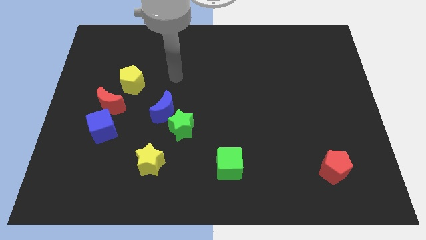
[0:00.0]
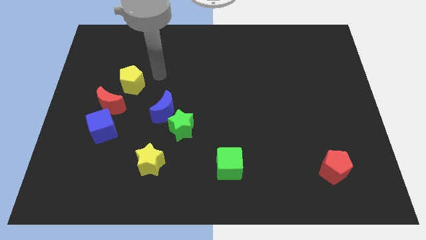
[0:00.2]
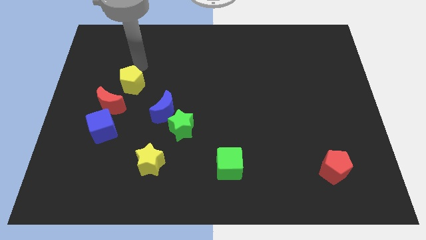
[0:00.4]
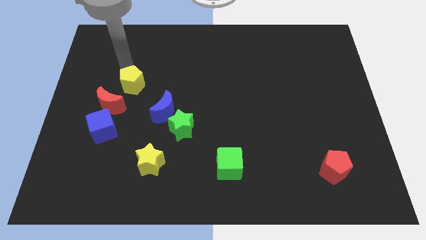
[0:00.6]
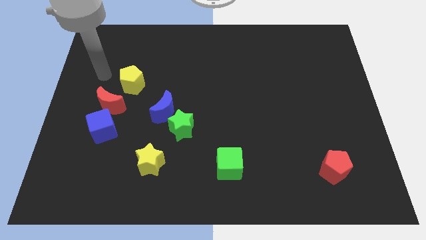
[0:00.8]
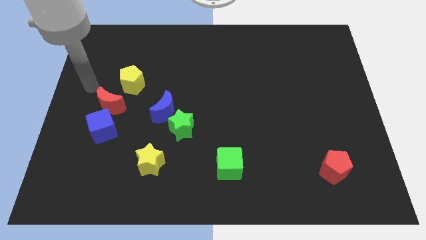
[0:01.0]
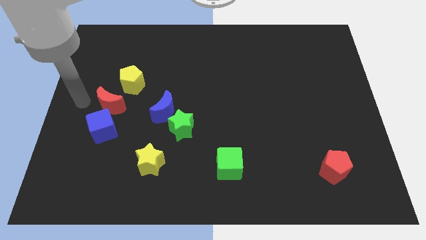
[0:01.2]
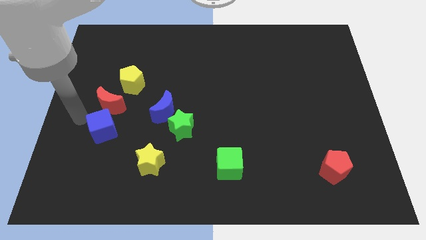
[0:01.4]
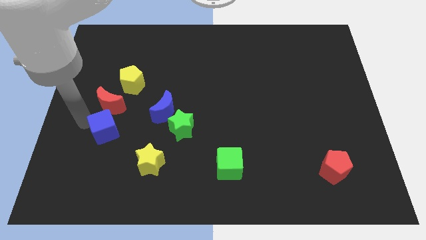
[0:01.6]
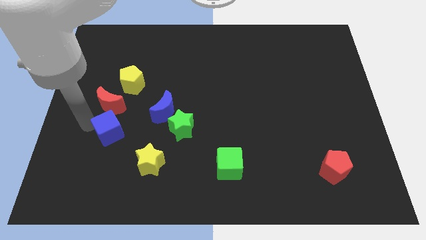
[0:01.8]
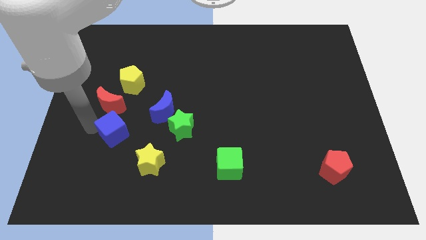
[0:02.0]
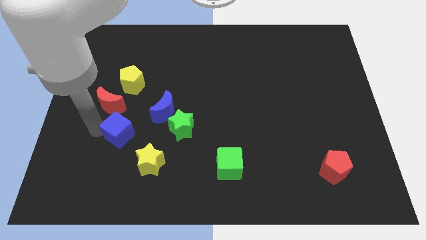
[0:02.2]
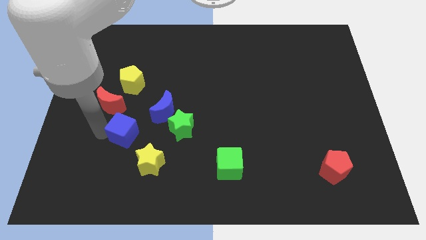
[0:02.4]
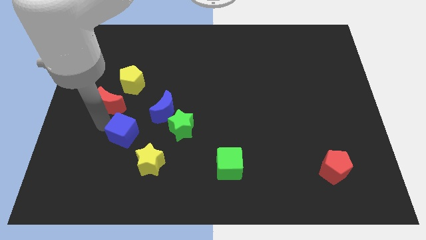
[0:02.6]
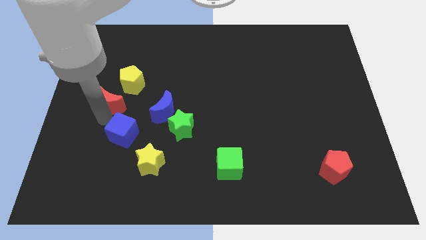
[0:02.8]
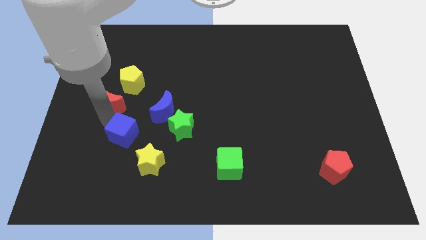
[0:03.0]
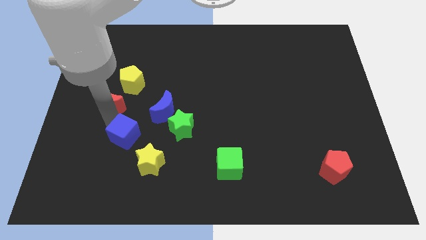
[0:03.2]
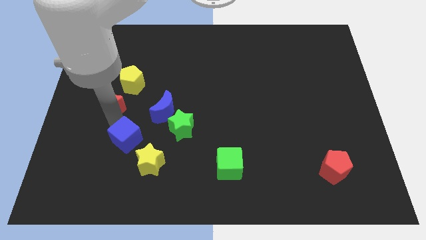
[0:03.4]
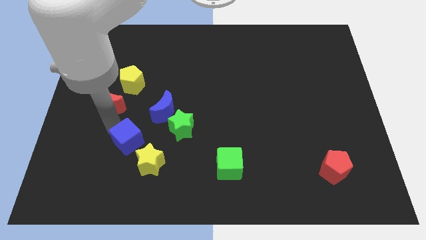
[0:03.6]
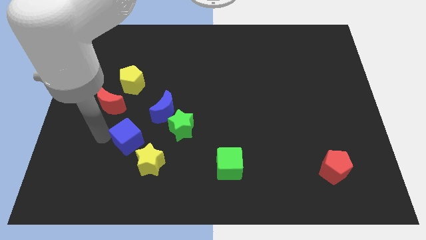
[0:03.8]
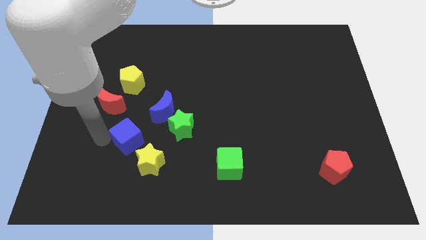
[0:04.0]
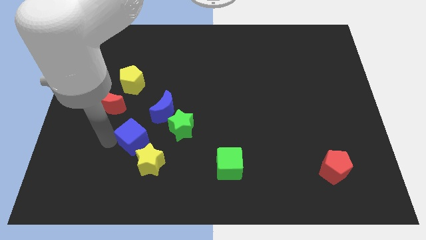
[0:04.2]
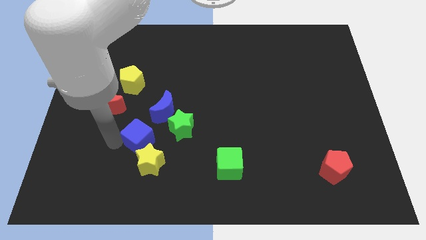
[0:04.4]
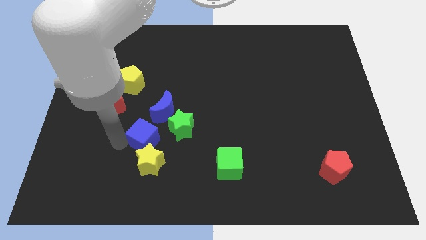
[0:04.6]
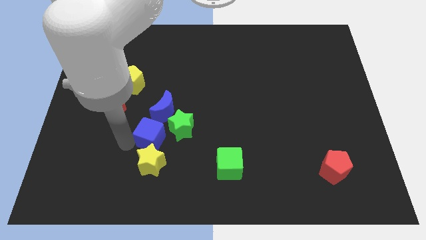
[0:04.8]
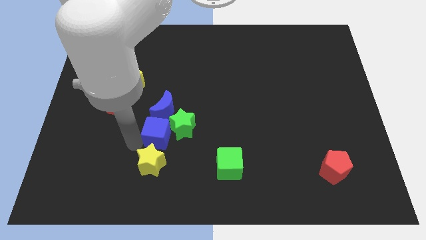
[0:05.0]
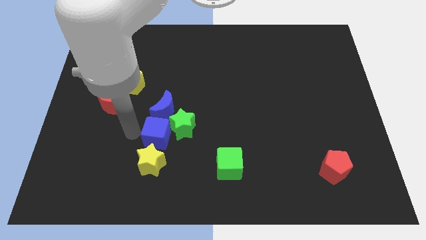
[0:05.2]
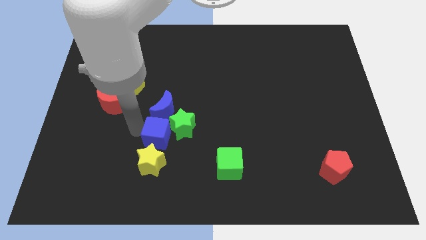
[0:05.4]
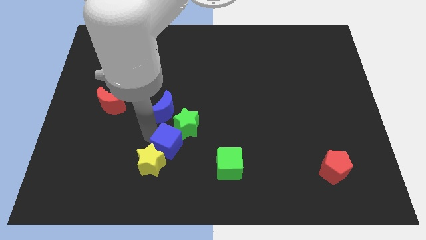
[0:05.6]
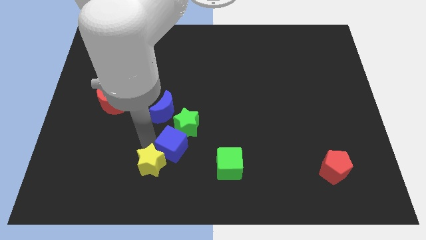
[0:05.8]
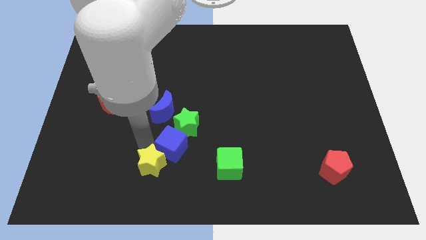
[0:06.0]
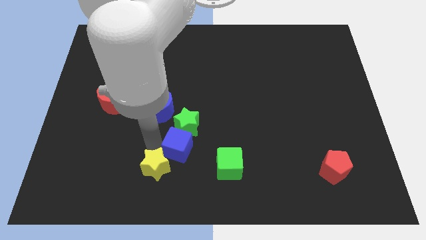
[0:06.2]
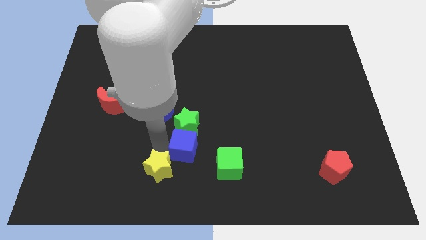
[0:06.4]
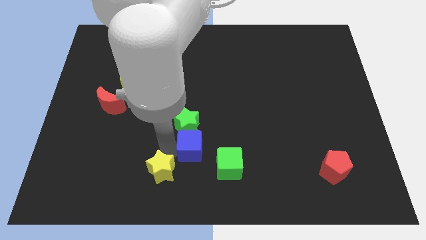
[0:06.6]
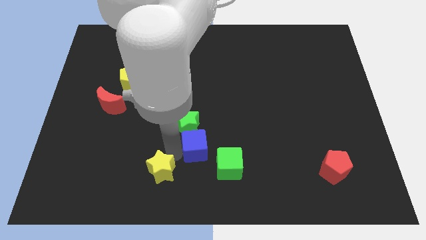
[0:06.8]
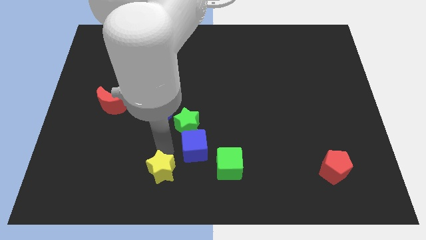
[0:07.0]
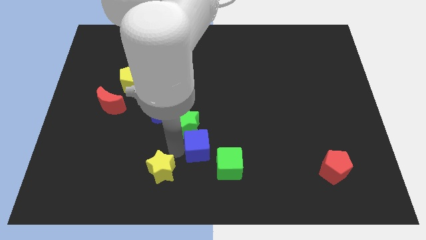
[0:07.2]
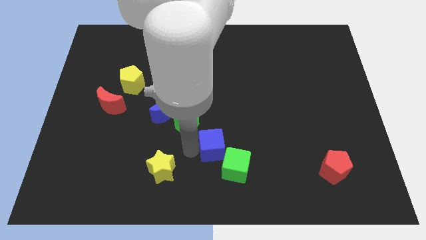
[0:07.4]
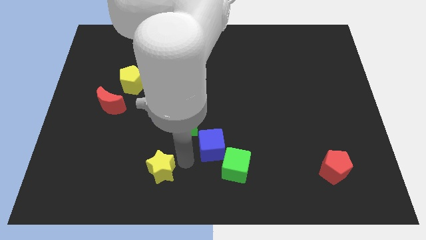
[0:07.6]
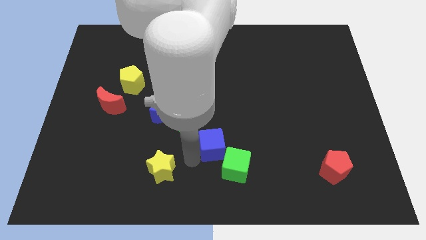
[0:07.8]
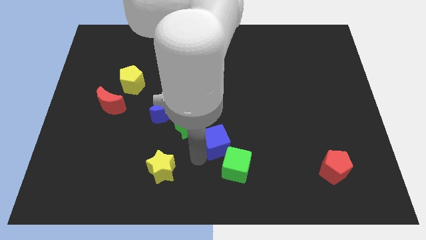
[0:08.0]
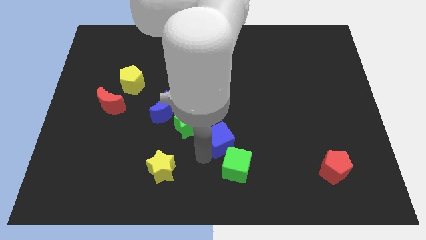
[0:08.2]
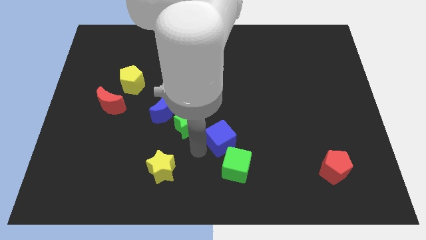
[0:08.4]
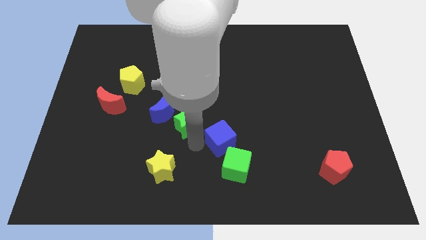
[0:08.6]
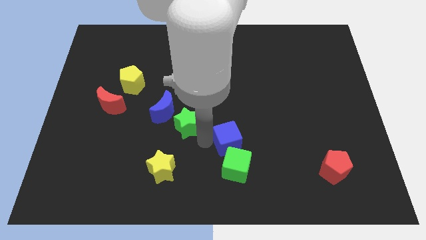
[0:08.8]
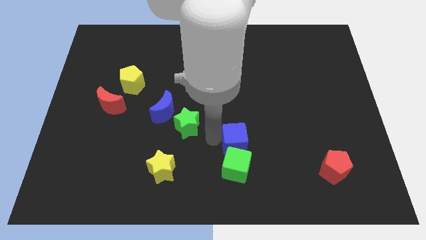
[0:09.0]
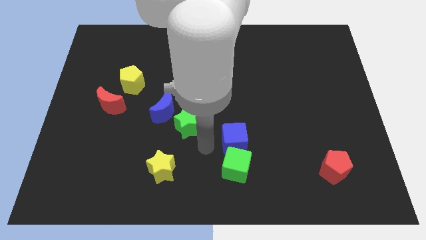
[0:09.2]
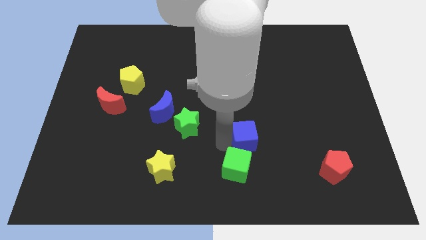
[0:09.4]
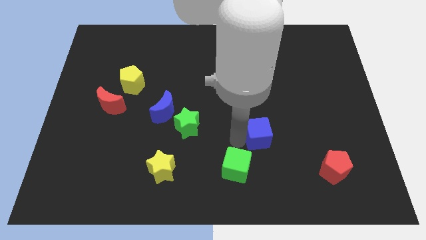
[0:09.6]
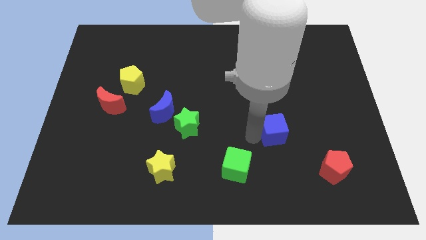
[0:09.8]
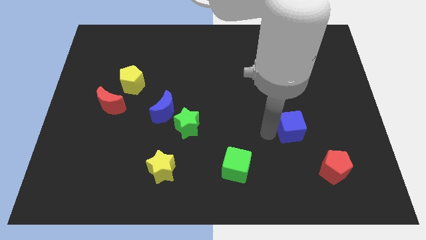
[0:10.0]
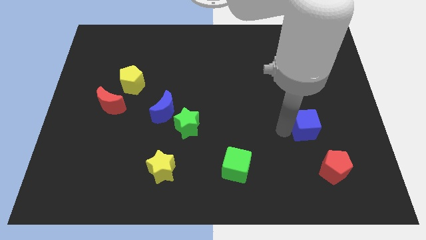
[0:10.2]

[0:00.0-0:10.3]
put the blue cube to the top of the red pentagon

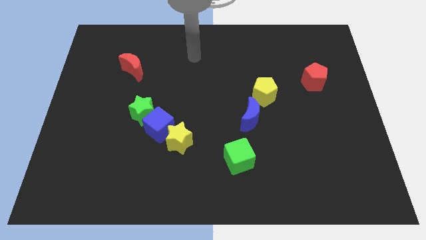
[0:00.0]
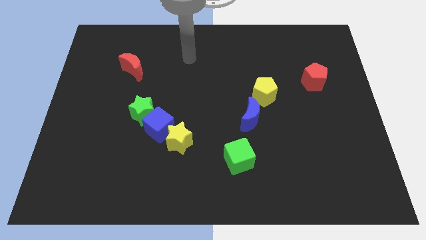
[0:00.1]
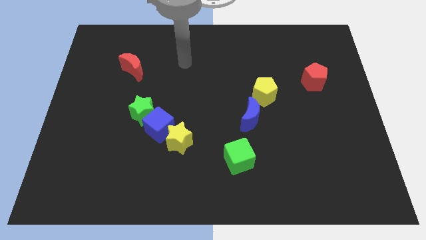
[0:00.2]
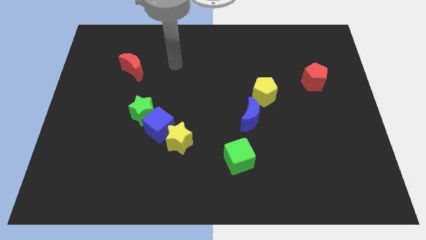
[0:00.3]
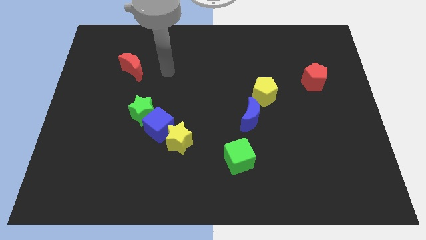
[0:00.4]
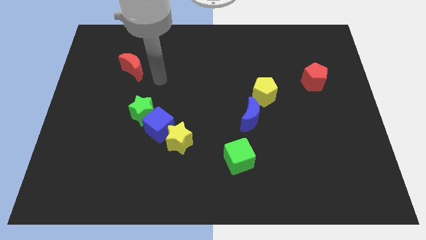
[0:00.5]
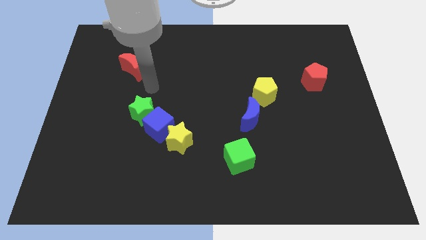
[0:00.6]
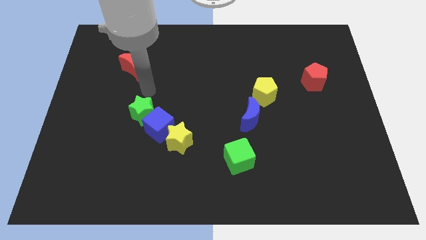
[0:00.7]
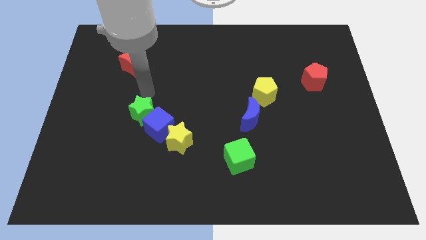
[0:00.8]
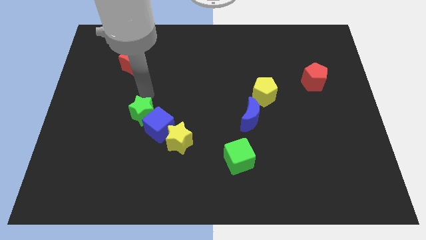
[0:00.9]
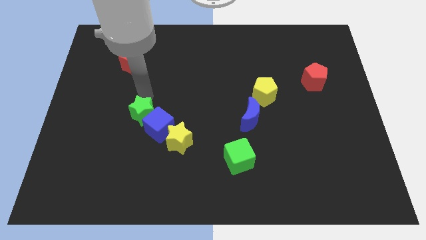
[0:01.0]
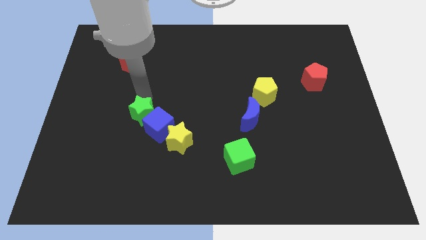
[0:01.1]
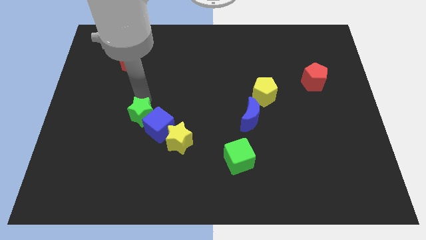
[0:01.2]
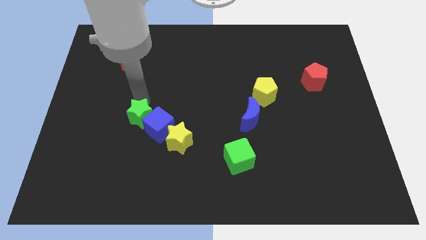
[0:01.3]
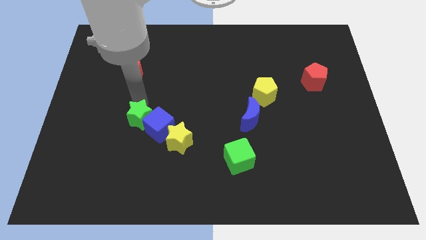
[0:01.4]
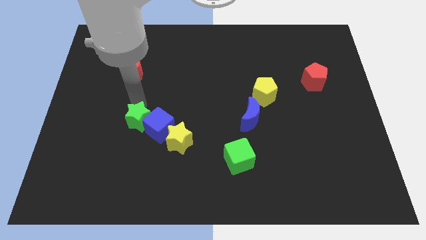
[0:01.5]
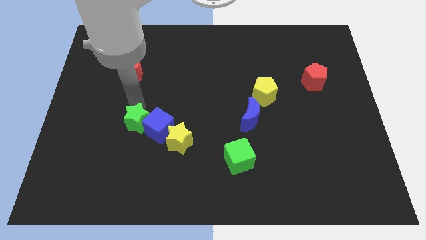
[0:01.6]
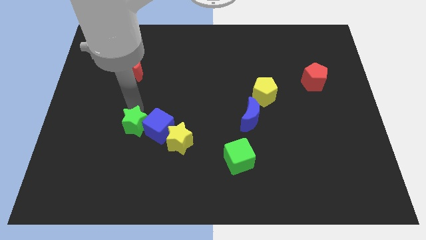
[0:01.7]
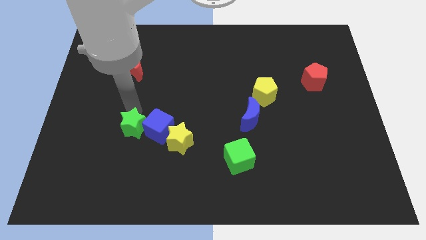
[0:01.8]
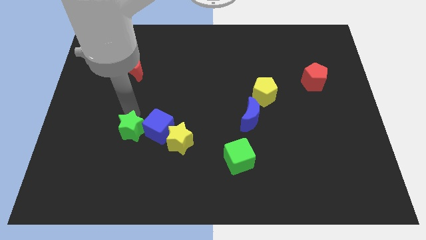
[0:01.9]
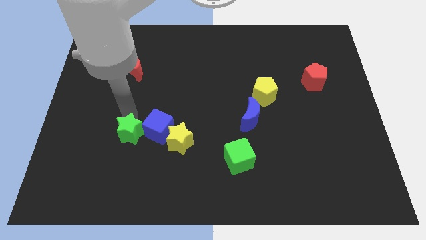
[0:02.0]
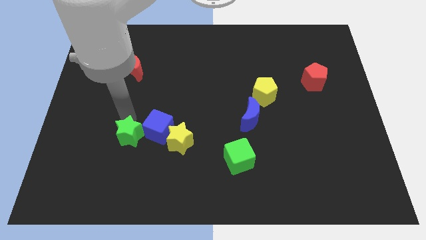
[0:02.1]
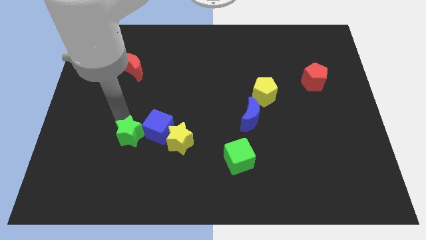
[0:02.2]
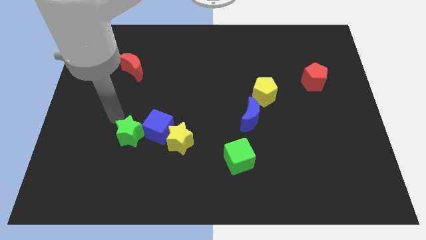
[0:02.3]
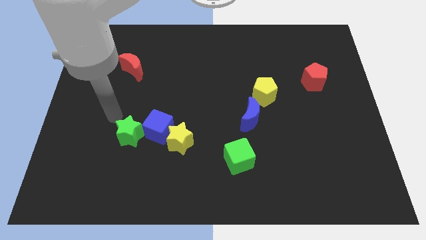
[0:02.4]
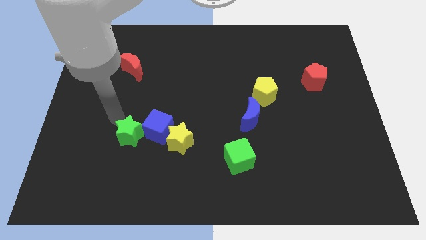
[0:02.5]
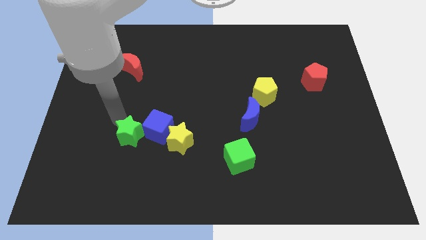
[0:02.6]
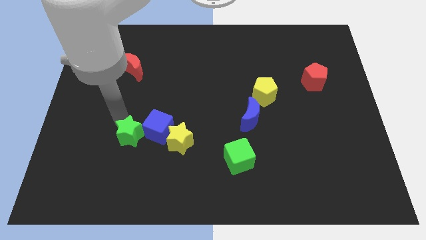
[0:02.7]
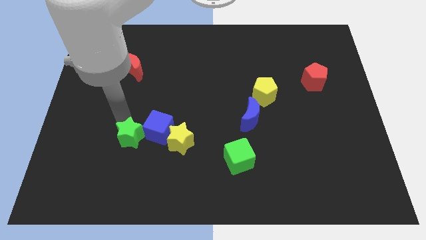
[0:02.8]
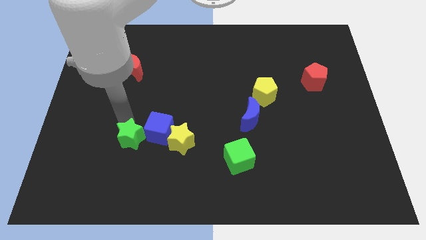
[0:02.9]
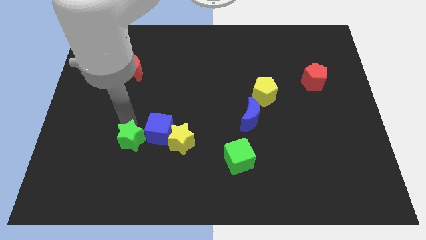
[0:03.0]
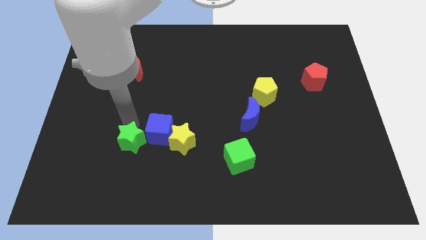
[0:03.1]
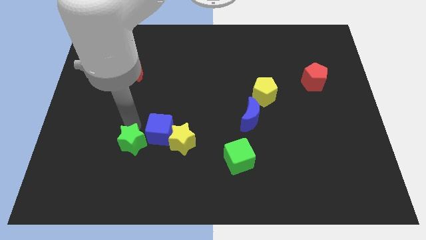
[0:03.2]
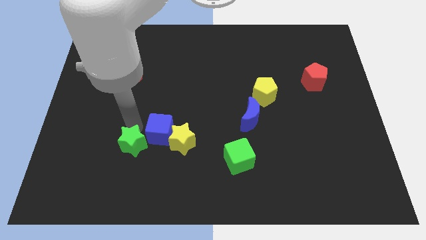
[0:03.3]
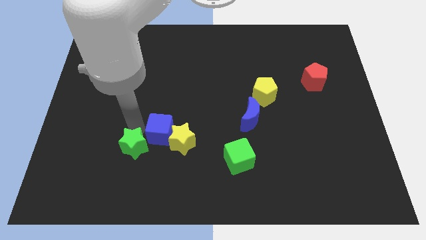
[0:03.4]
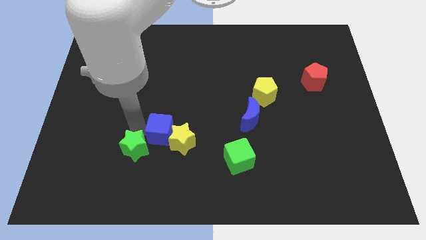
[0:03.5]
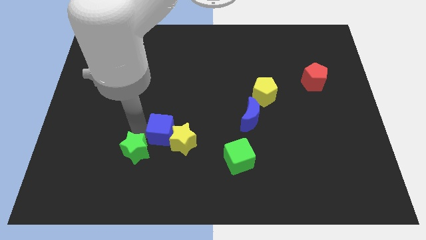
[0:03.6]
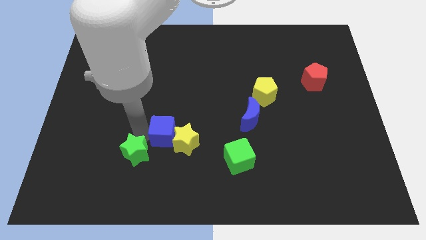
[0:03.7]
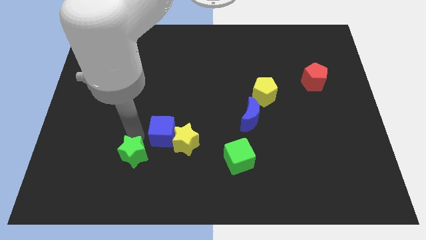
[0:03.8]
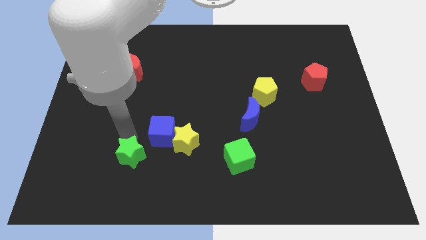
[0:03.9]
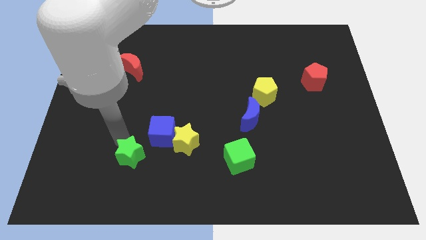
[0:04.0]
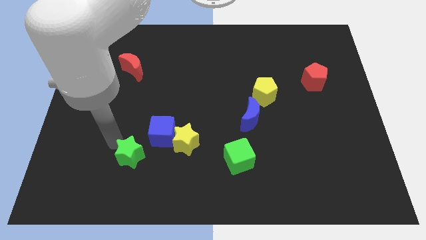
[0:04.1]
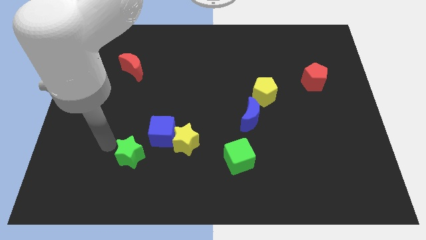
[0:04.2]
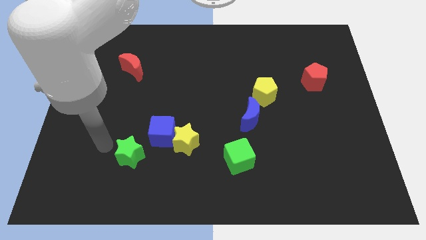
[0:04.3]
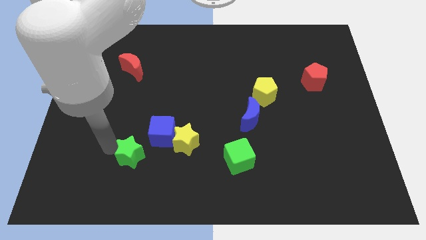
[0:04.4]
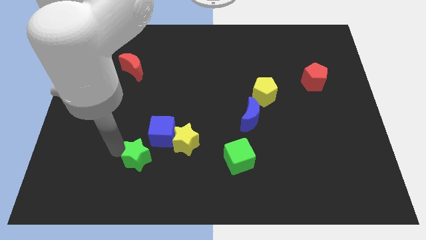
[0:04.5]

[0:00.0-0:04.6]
push the green star to the bottom left side of the yellow star
